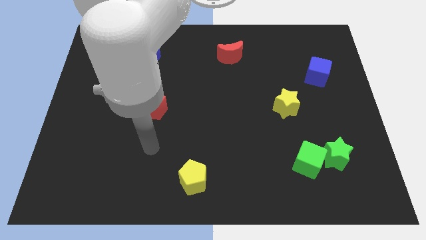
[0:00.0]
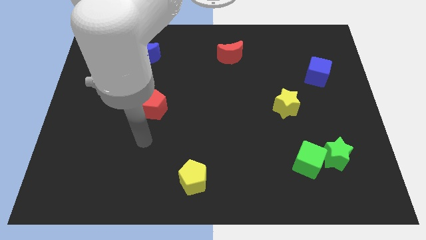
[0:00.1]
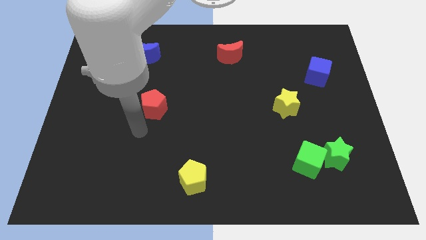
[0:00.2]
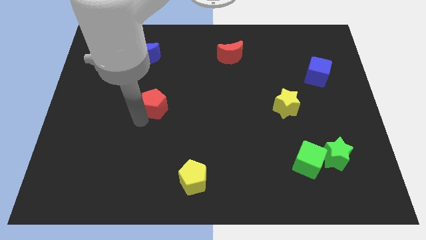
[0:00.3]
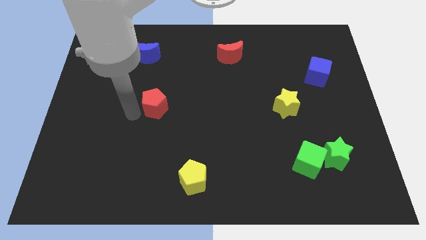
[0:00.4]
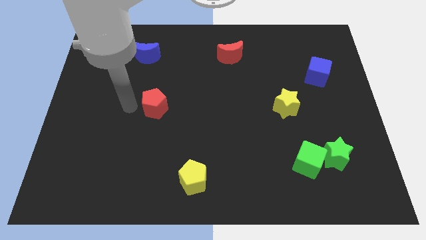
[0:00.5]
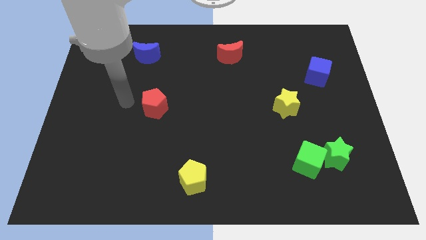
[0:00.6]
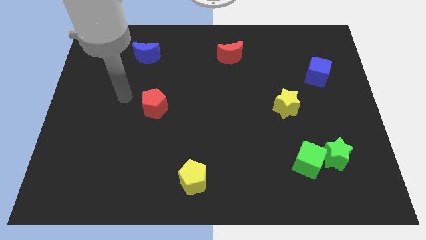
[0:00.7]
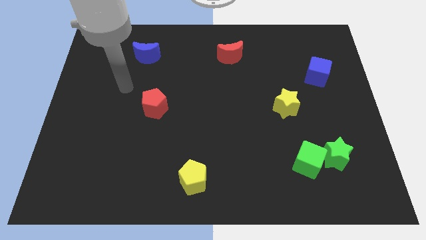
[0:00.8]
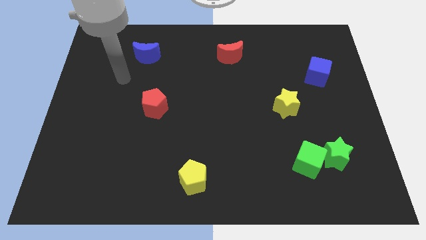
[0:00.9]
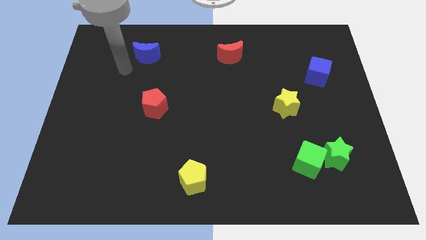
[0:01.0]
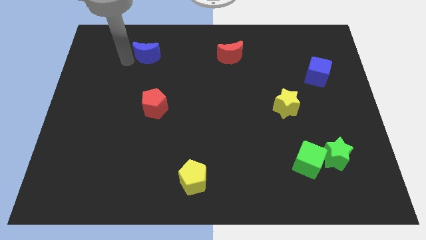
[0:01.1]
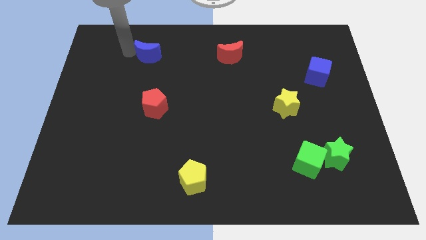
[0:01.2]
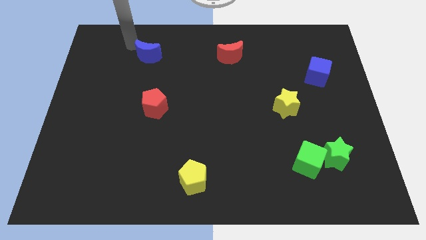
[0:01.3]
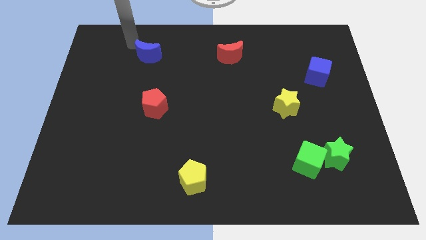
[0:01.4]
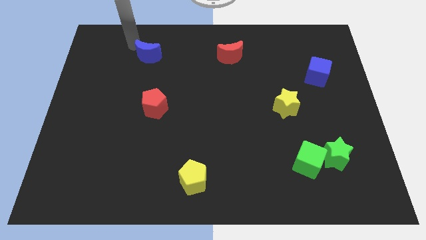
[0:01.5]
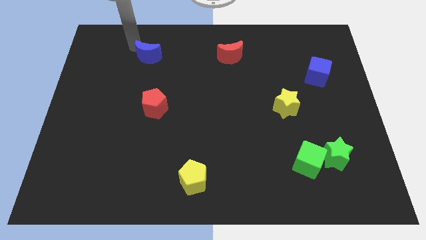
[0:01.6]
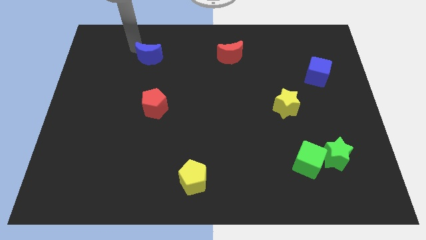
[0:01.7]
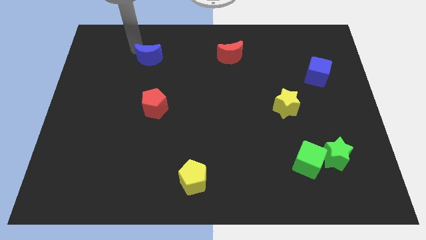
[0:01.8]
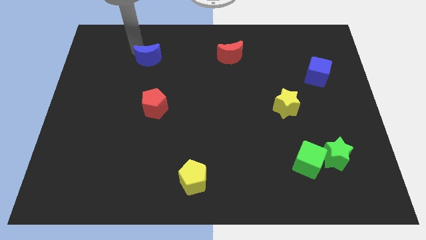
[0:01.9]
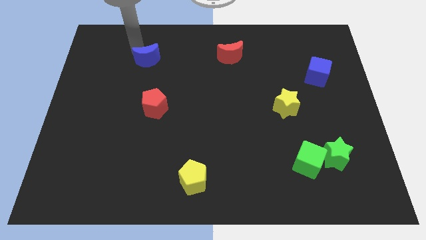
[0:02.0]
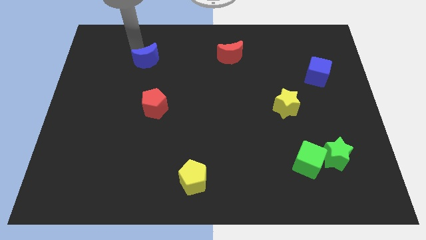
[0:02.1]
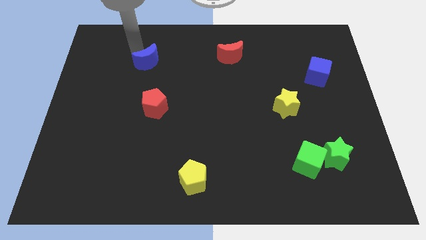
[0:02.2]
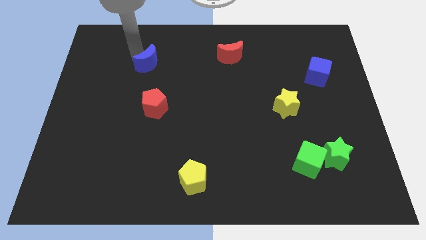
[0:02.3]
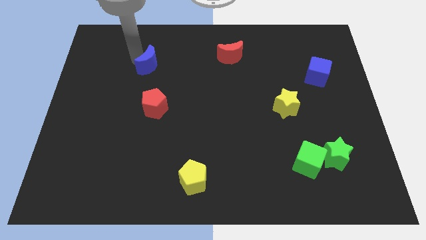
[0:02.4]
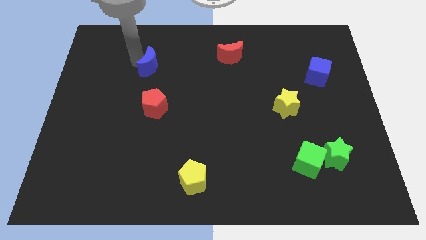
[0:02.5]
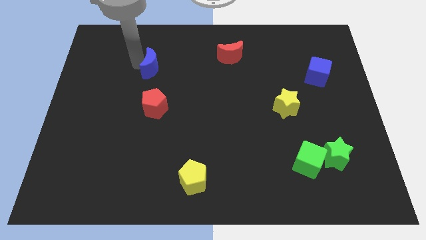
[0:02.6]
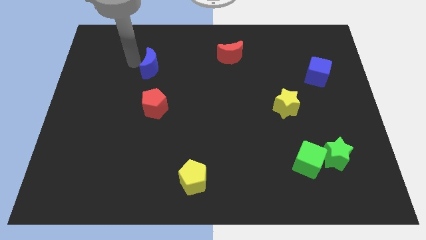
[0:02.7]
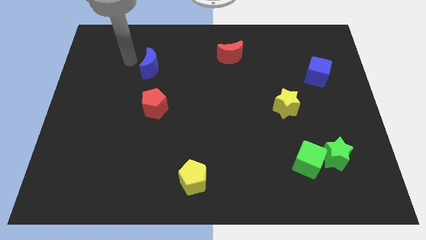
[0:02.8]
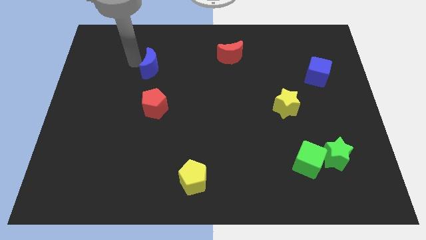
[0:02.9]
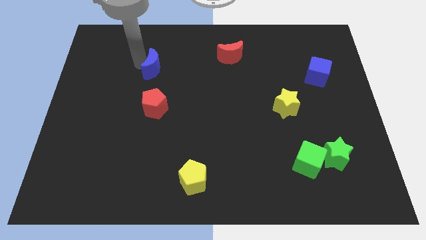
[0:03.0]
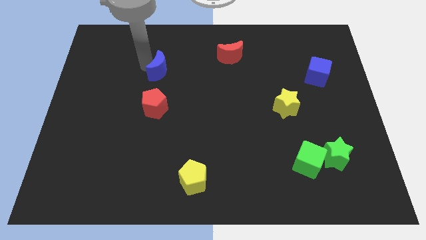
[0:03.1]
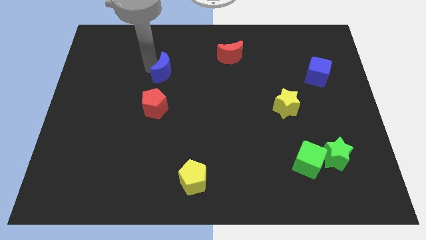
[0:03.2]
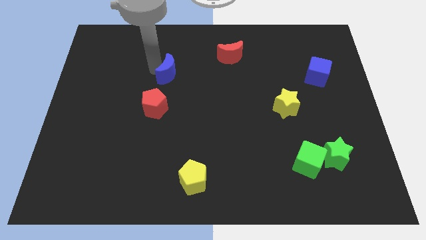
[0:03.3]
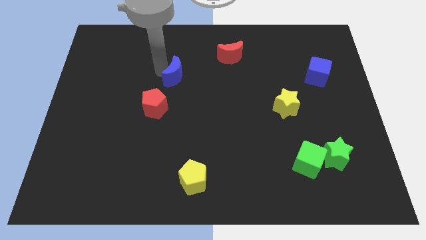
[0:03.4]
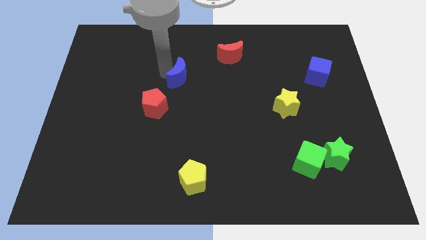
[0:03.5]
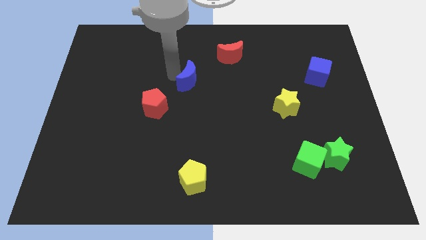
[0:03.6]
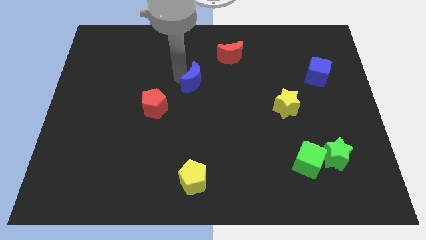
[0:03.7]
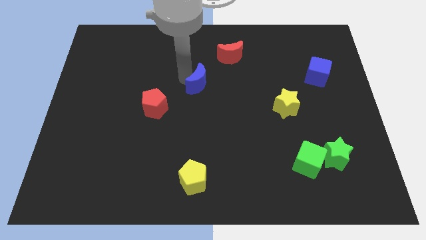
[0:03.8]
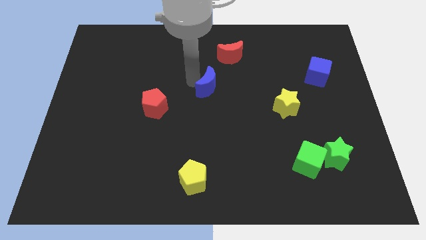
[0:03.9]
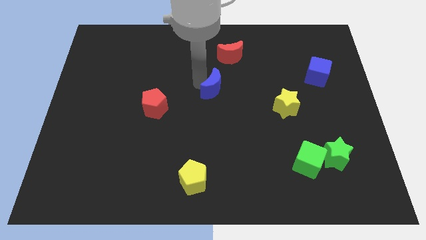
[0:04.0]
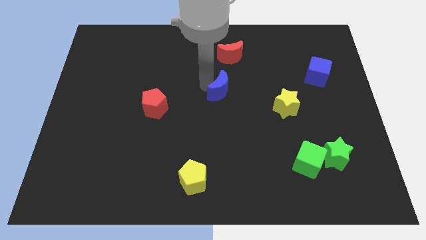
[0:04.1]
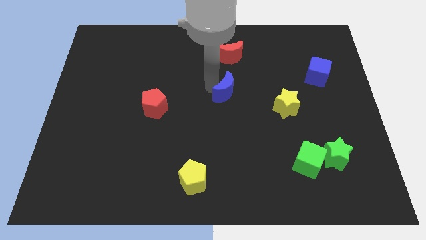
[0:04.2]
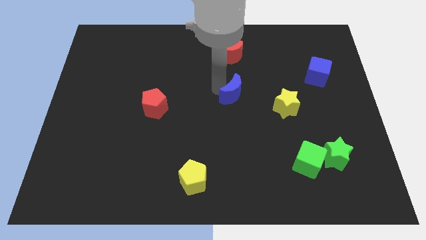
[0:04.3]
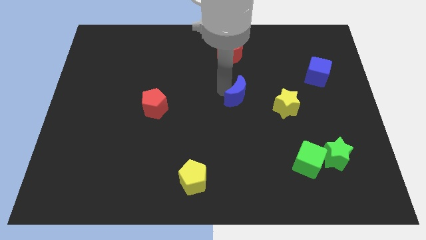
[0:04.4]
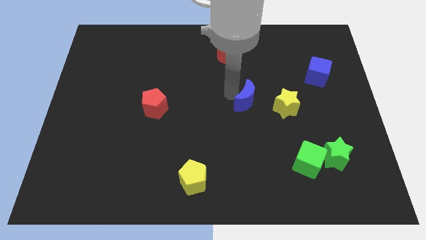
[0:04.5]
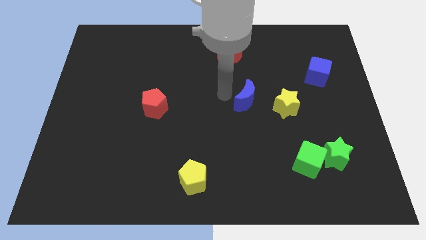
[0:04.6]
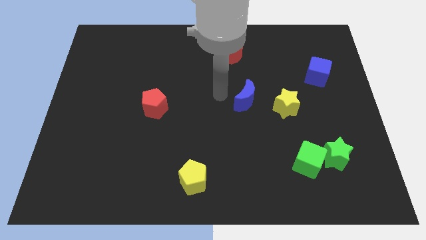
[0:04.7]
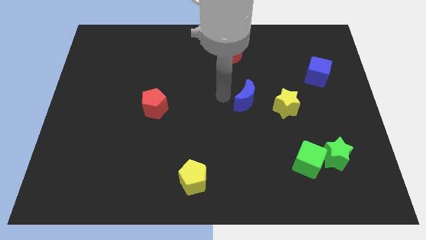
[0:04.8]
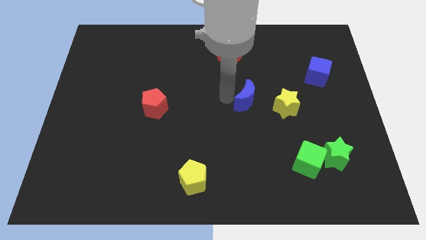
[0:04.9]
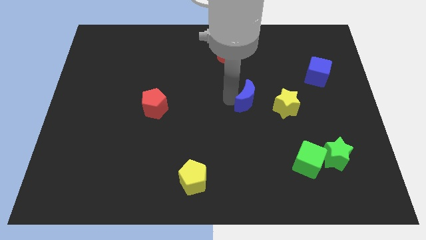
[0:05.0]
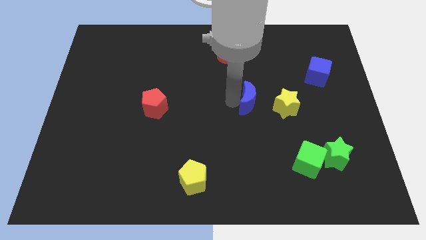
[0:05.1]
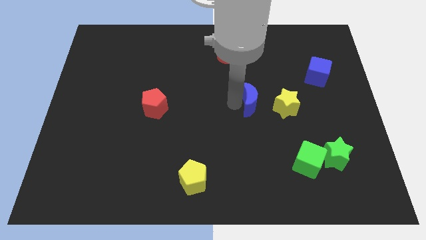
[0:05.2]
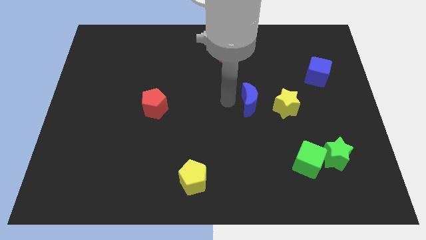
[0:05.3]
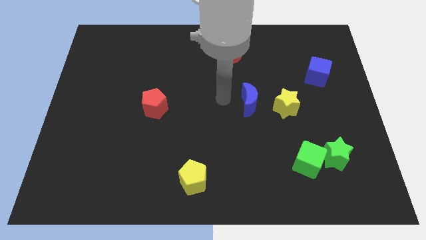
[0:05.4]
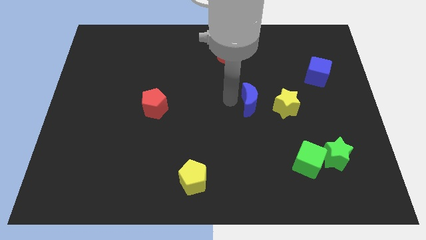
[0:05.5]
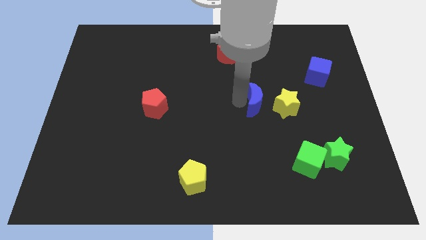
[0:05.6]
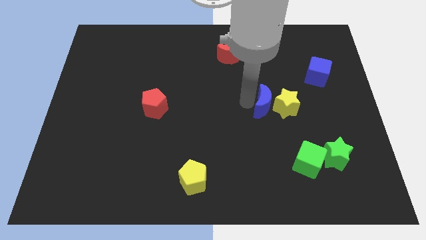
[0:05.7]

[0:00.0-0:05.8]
push the blue moon next to the yellow star

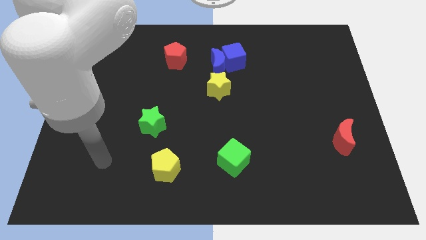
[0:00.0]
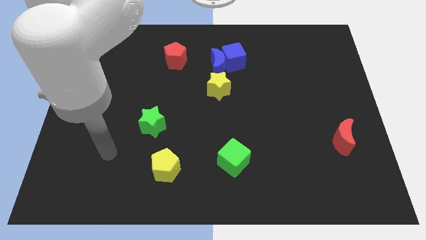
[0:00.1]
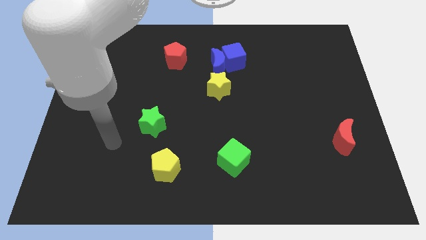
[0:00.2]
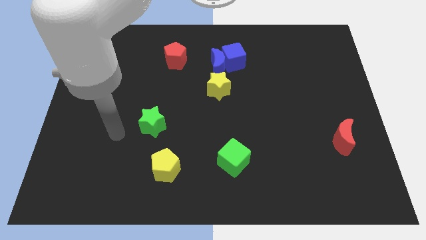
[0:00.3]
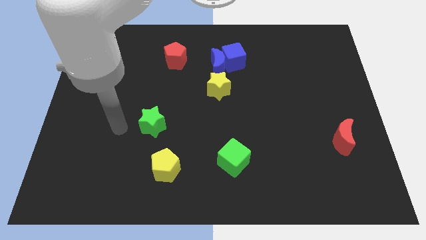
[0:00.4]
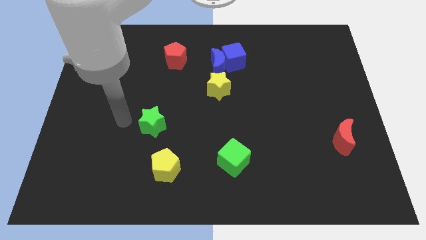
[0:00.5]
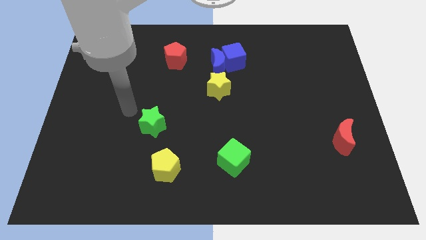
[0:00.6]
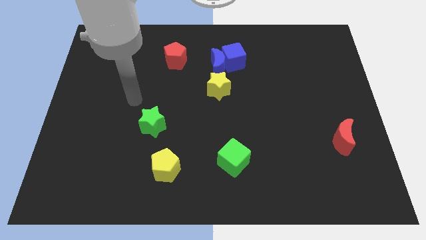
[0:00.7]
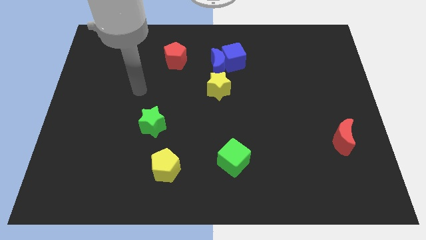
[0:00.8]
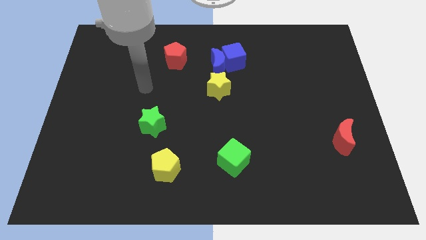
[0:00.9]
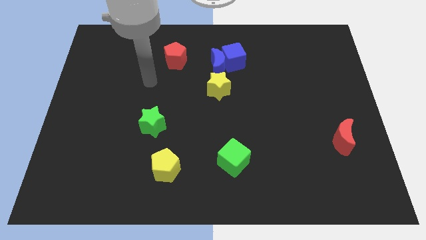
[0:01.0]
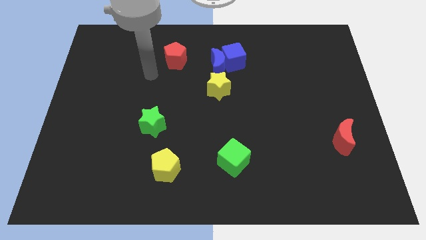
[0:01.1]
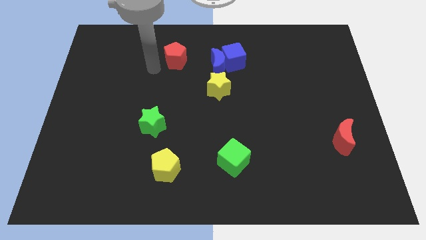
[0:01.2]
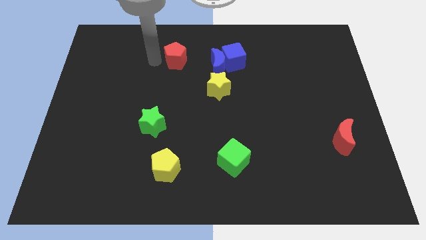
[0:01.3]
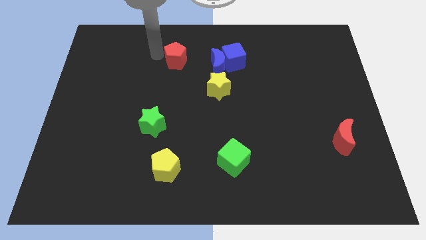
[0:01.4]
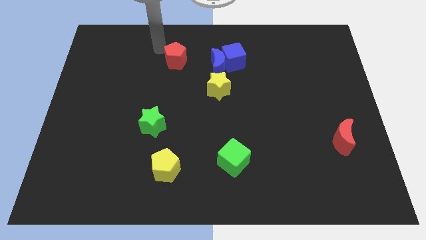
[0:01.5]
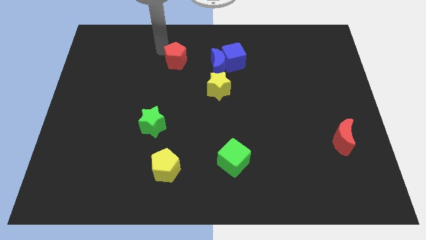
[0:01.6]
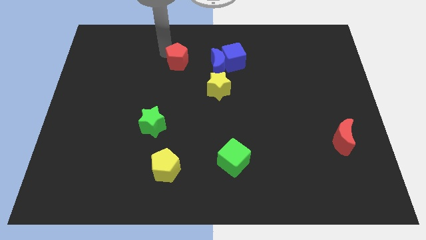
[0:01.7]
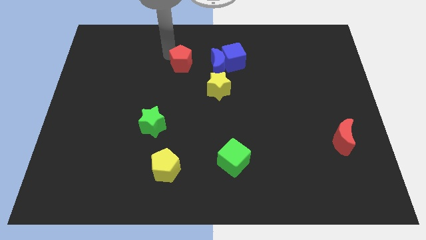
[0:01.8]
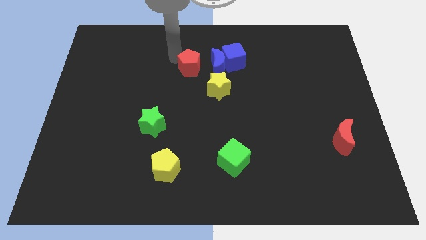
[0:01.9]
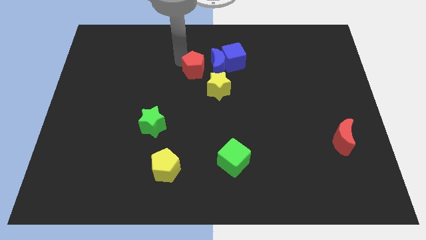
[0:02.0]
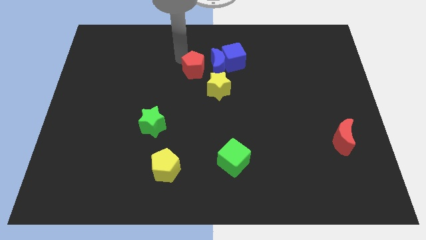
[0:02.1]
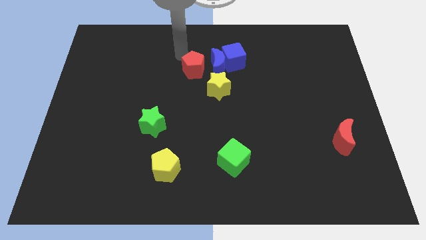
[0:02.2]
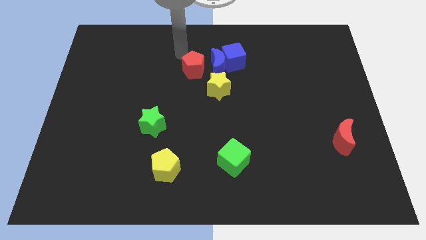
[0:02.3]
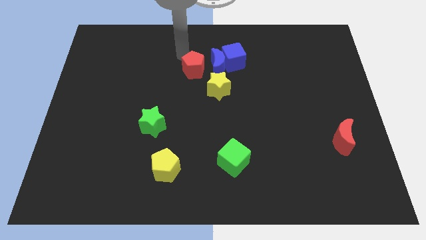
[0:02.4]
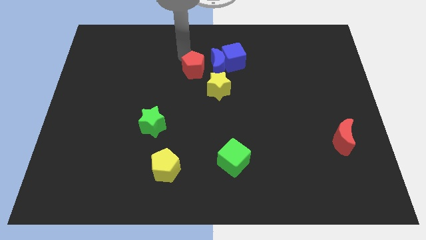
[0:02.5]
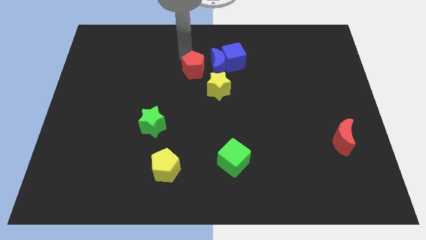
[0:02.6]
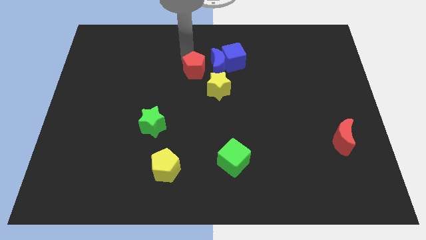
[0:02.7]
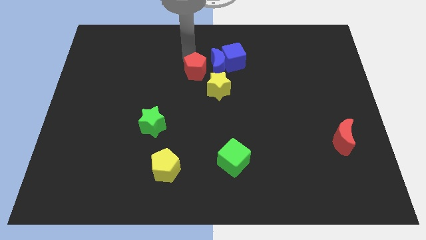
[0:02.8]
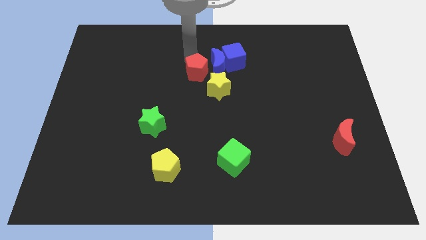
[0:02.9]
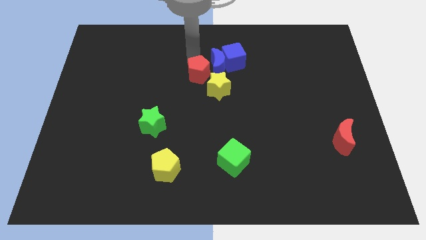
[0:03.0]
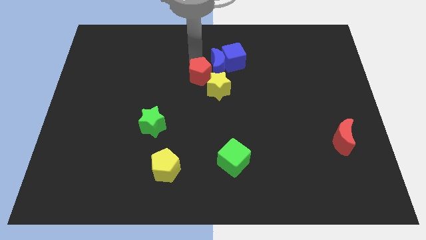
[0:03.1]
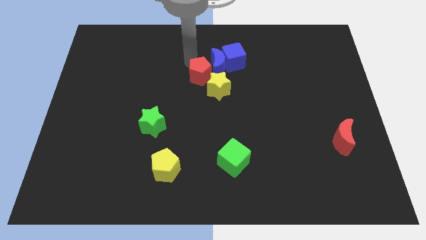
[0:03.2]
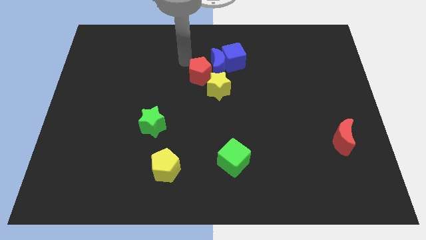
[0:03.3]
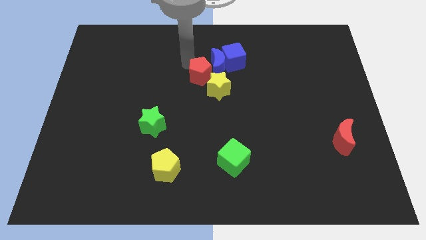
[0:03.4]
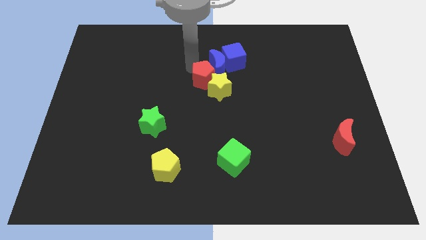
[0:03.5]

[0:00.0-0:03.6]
put the red pentagon towards the yellow star
